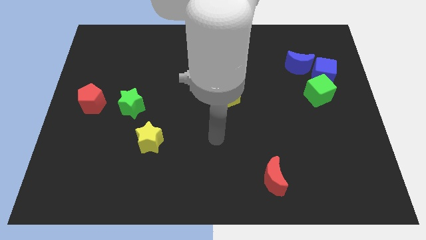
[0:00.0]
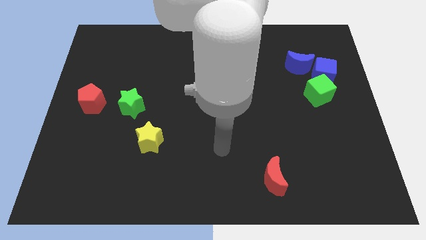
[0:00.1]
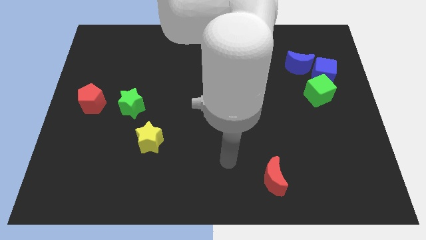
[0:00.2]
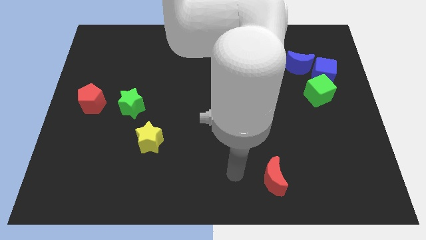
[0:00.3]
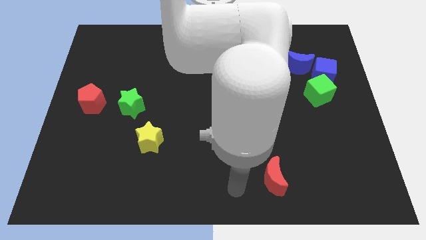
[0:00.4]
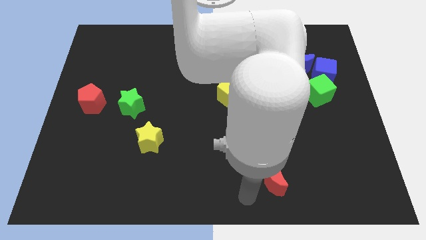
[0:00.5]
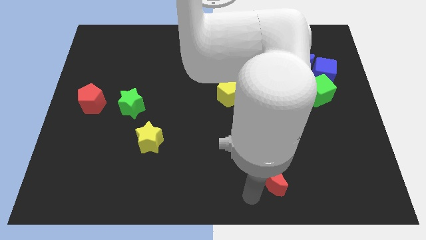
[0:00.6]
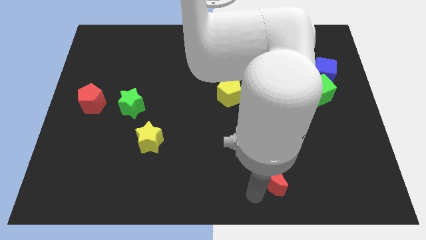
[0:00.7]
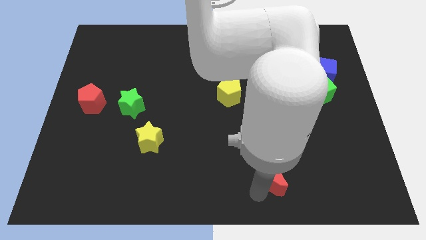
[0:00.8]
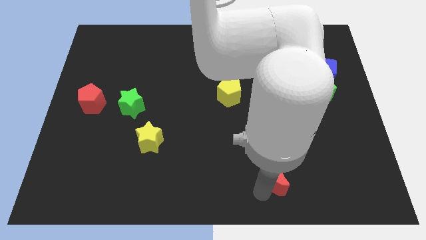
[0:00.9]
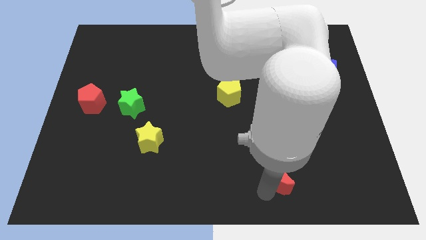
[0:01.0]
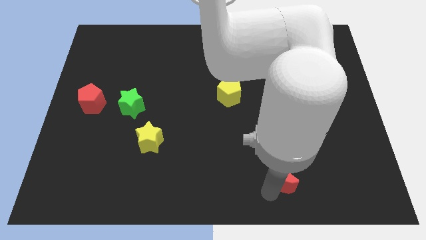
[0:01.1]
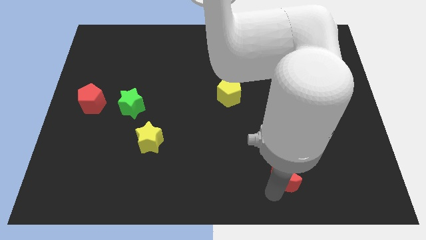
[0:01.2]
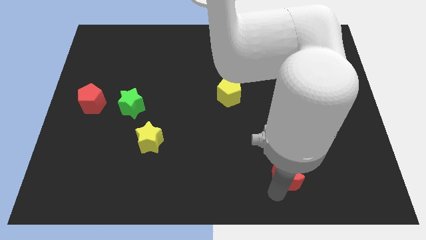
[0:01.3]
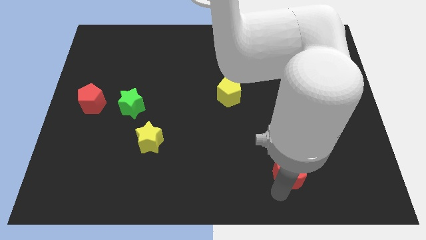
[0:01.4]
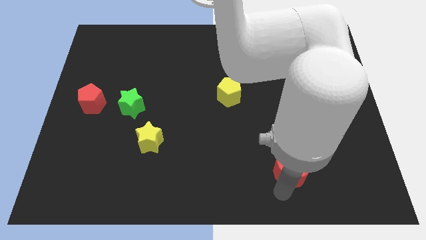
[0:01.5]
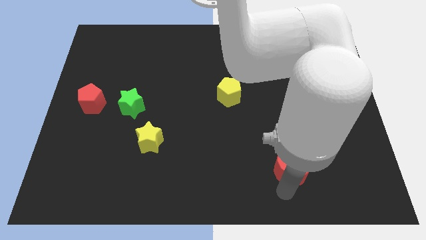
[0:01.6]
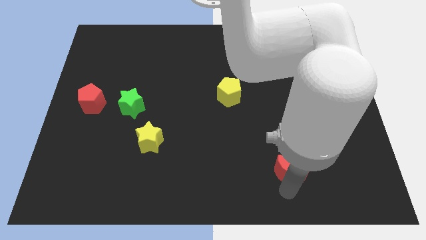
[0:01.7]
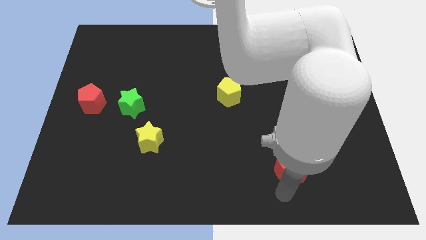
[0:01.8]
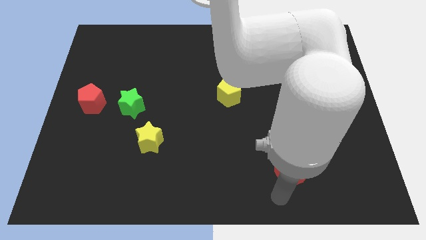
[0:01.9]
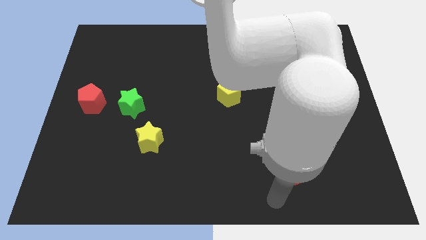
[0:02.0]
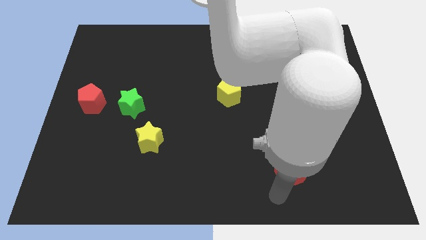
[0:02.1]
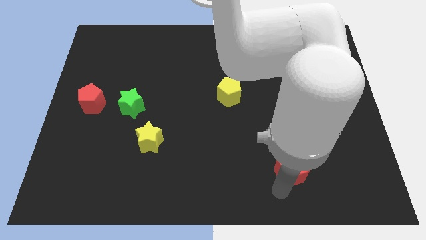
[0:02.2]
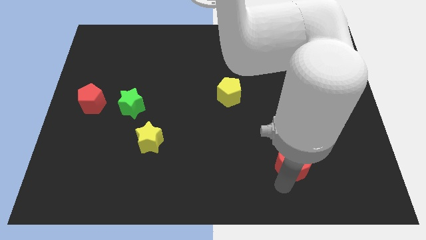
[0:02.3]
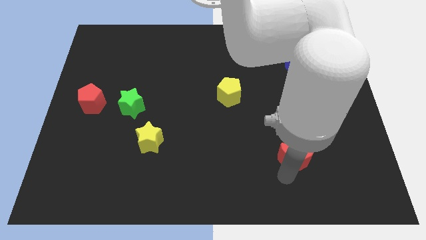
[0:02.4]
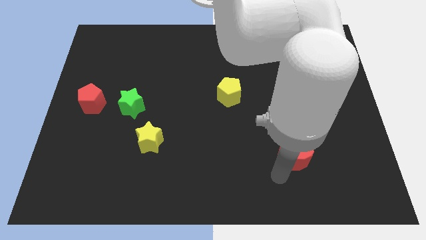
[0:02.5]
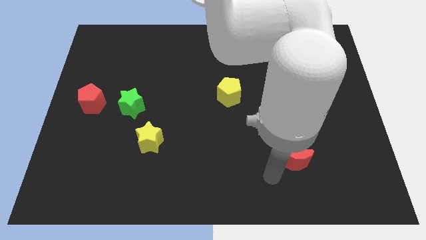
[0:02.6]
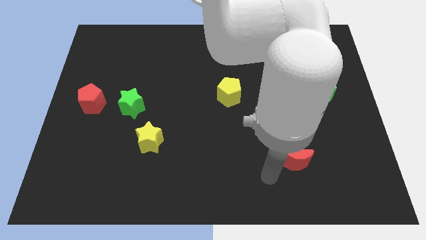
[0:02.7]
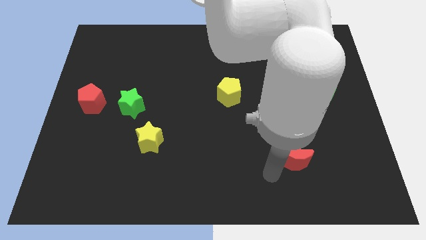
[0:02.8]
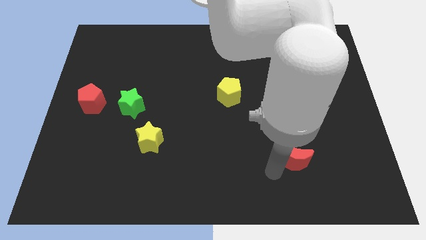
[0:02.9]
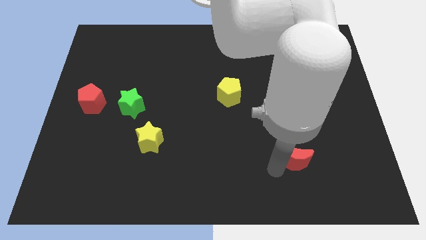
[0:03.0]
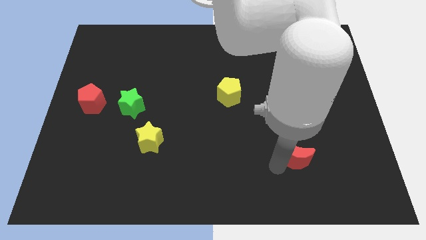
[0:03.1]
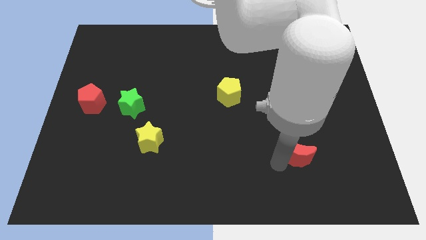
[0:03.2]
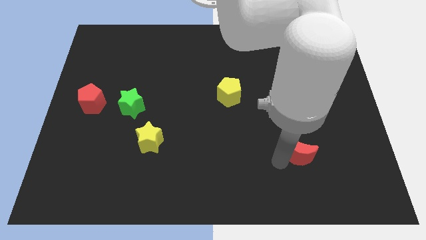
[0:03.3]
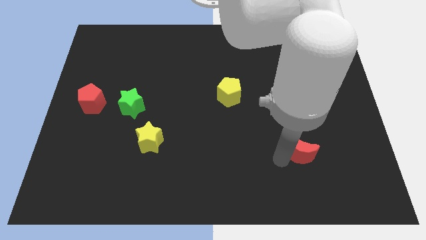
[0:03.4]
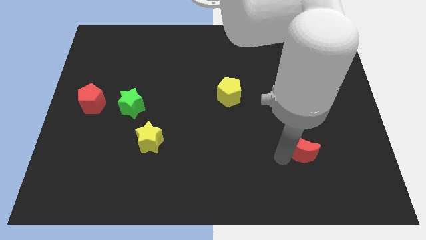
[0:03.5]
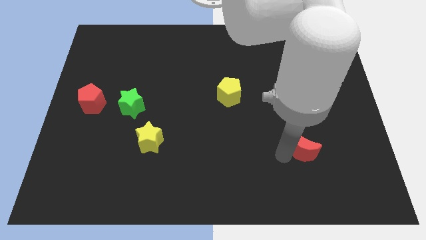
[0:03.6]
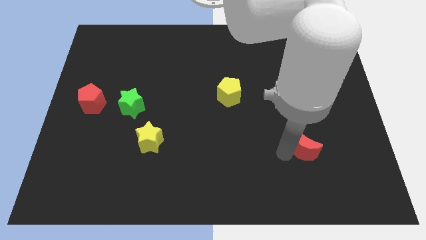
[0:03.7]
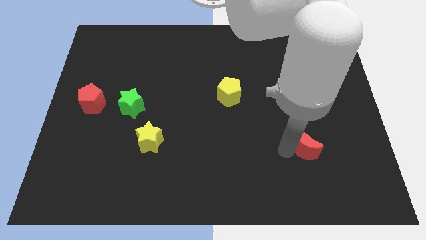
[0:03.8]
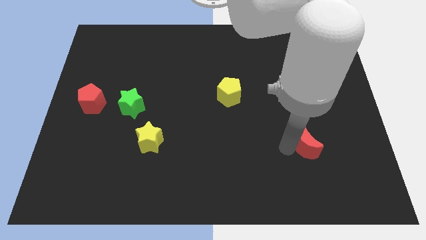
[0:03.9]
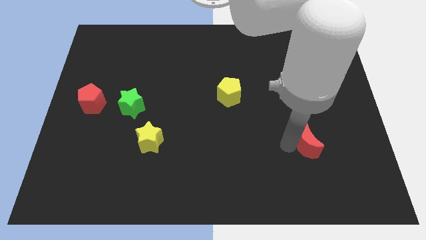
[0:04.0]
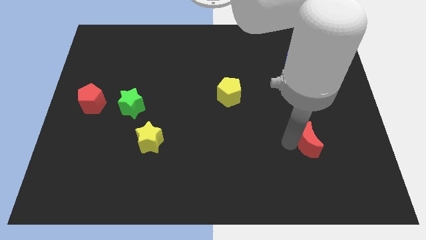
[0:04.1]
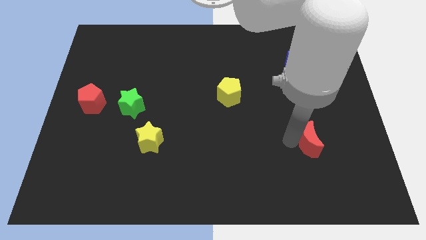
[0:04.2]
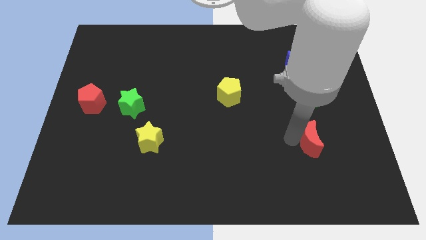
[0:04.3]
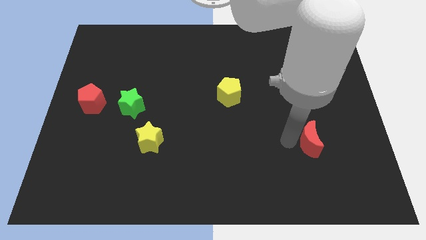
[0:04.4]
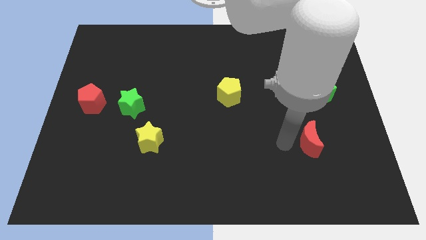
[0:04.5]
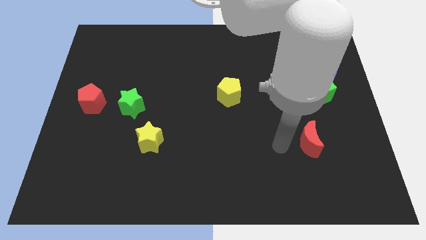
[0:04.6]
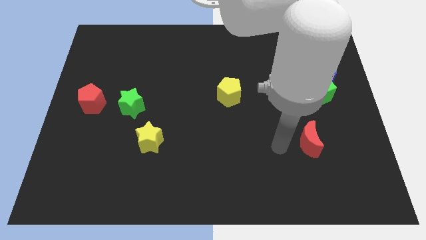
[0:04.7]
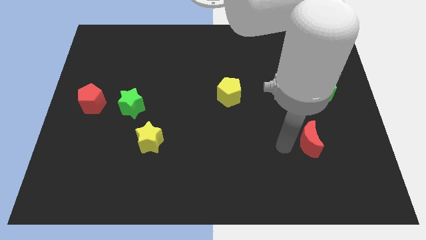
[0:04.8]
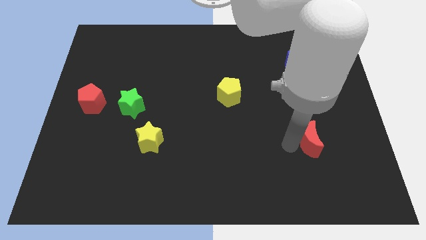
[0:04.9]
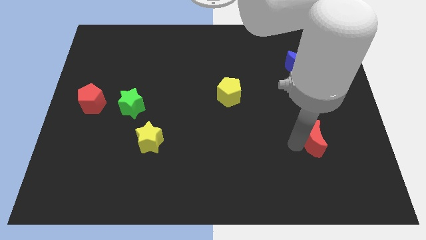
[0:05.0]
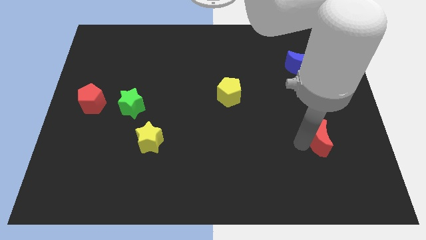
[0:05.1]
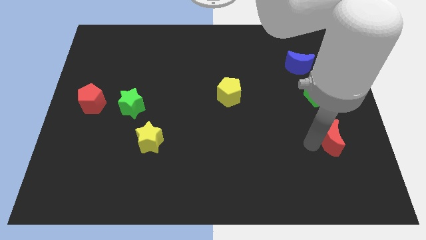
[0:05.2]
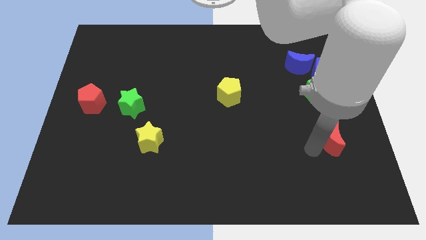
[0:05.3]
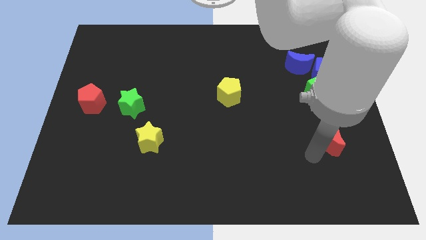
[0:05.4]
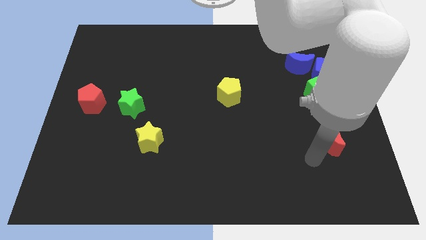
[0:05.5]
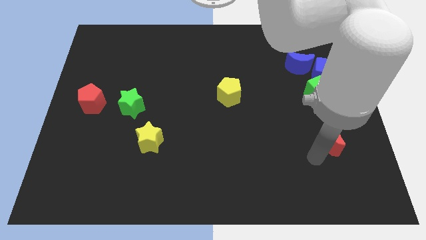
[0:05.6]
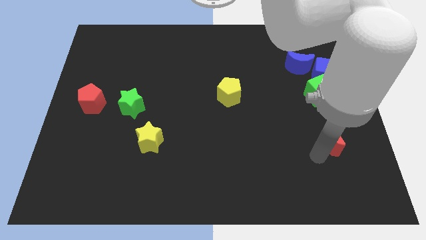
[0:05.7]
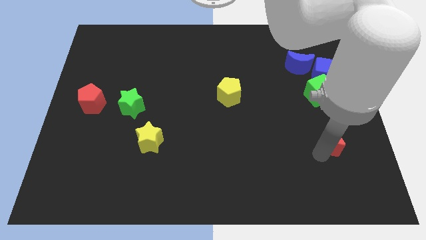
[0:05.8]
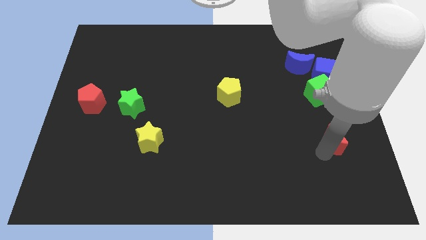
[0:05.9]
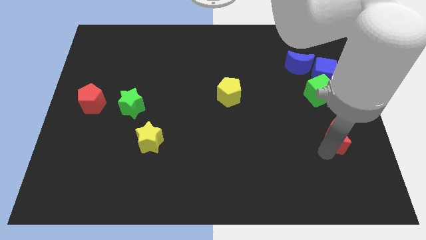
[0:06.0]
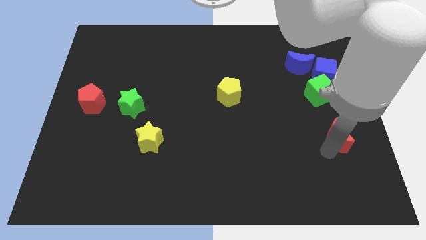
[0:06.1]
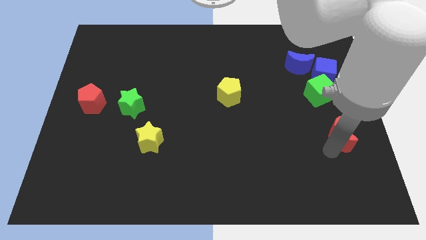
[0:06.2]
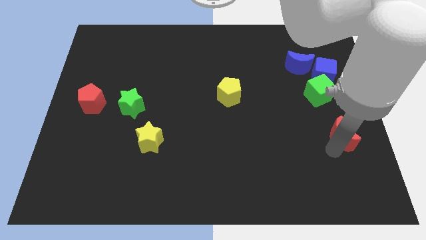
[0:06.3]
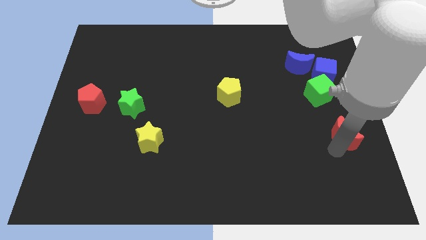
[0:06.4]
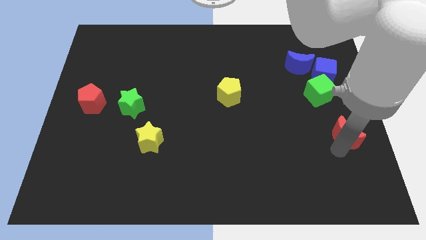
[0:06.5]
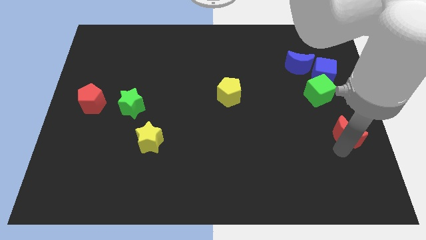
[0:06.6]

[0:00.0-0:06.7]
push the red moon to the center right
